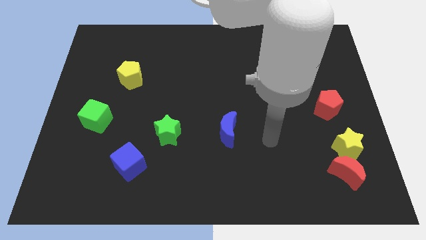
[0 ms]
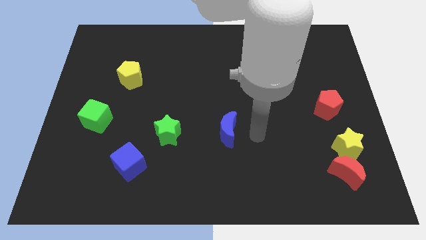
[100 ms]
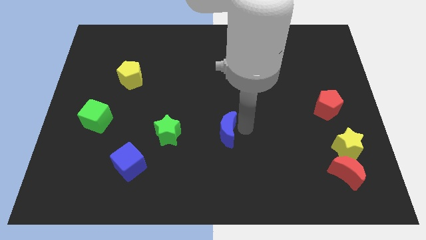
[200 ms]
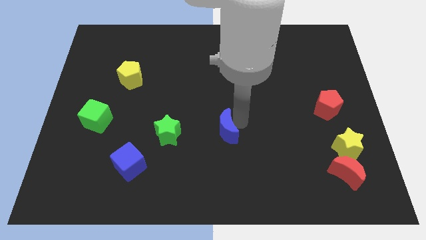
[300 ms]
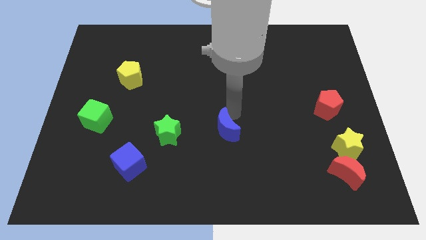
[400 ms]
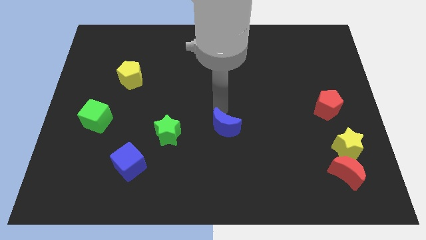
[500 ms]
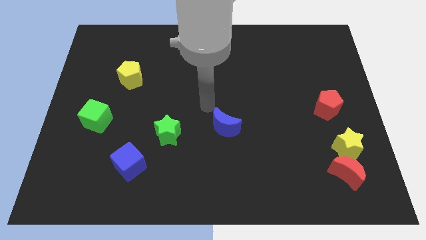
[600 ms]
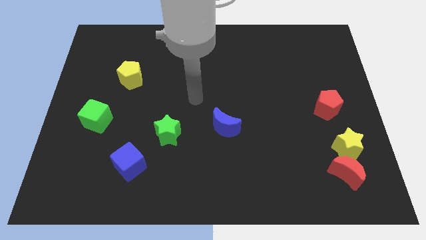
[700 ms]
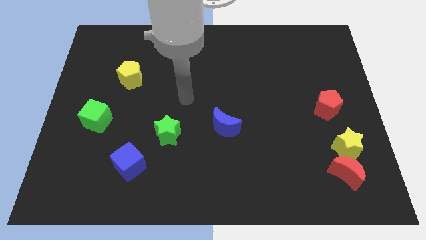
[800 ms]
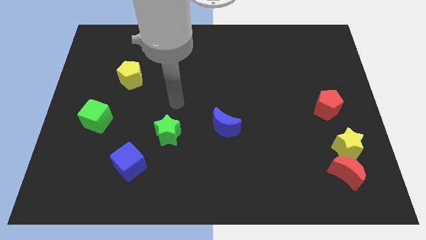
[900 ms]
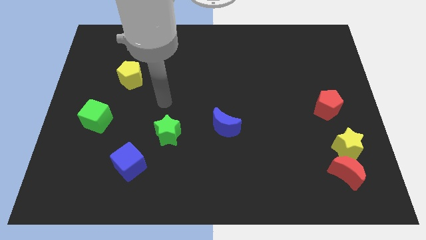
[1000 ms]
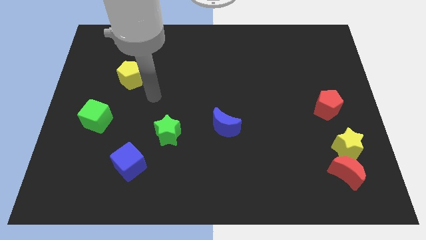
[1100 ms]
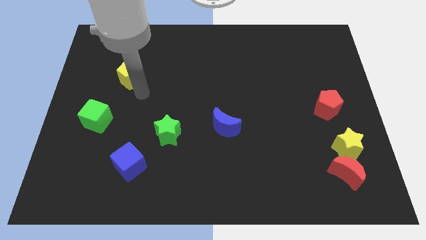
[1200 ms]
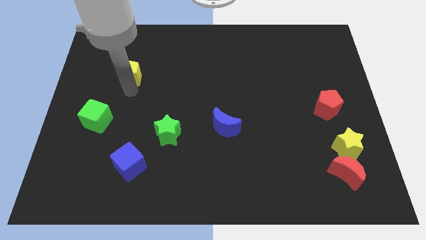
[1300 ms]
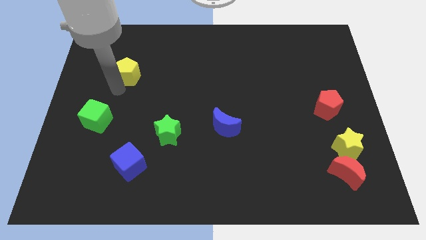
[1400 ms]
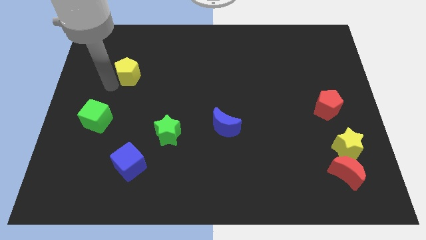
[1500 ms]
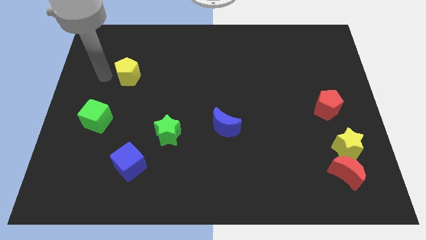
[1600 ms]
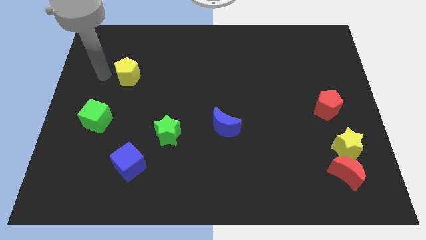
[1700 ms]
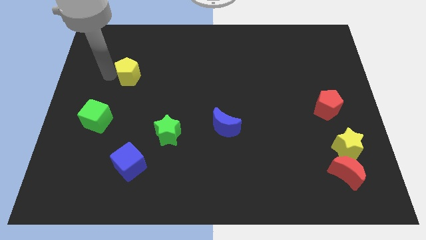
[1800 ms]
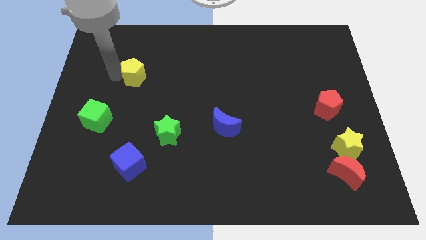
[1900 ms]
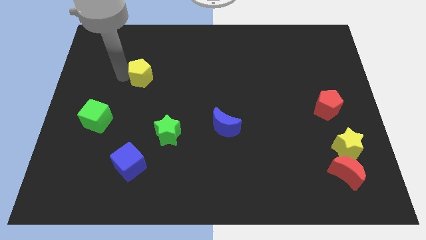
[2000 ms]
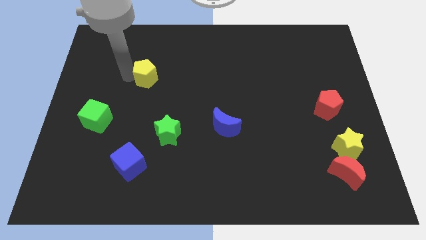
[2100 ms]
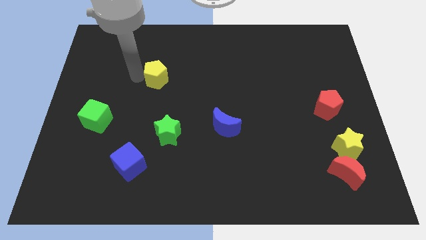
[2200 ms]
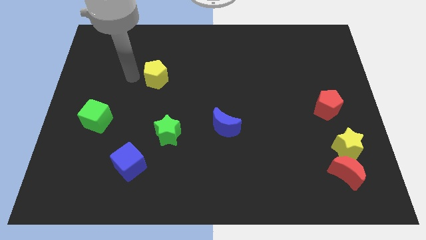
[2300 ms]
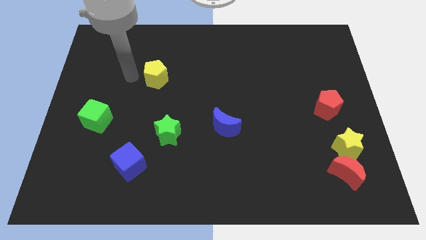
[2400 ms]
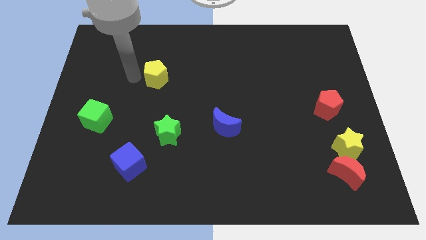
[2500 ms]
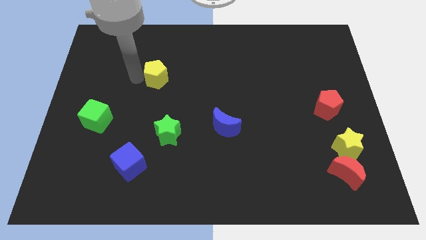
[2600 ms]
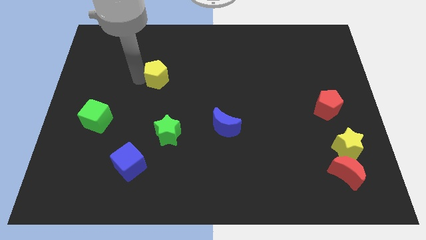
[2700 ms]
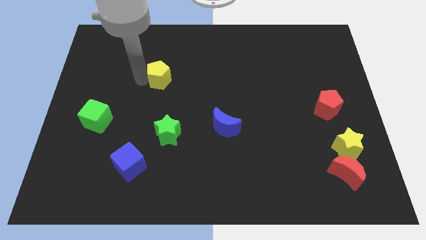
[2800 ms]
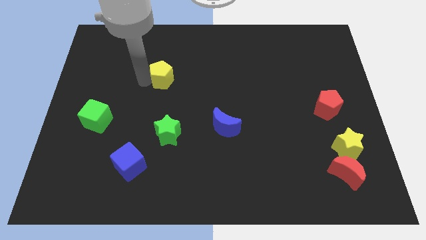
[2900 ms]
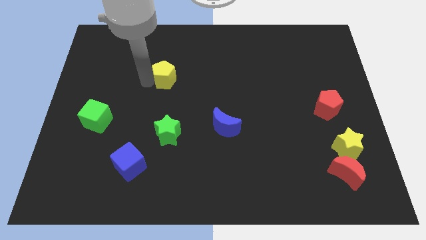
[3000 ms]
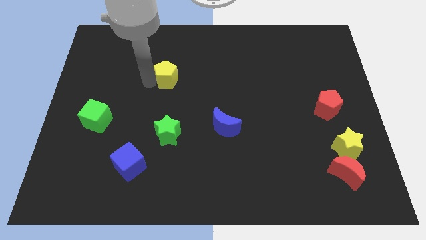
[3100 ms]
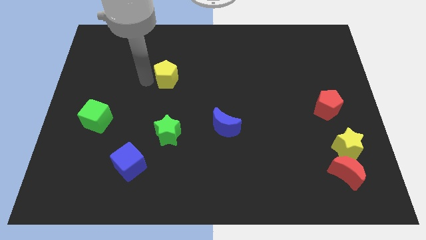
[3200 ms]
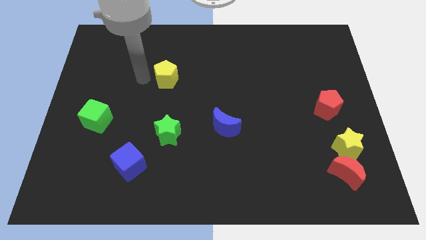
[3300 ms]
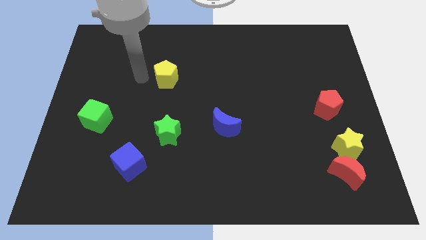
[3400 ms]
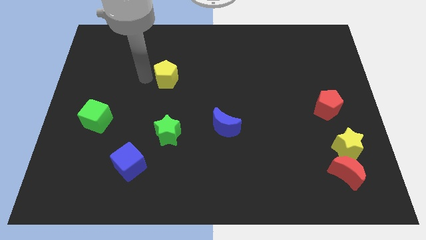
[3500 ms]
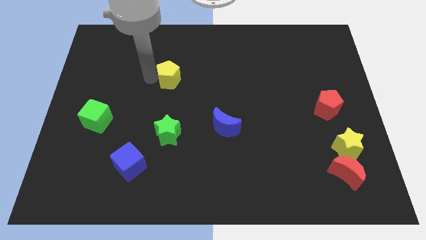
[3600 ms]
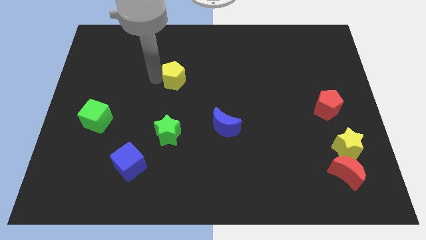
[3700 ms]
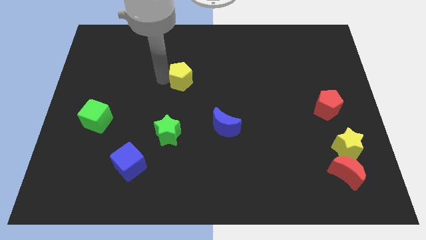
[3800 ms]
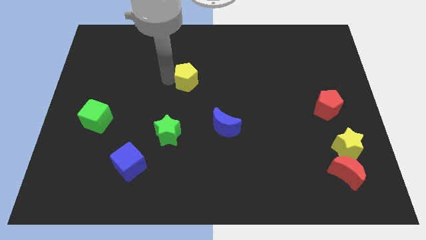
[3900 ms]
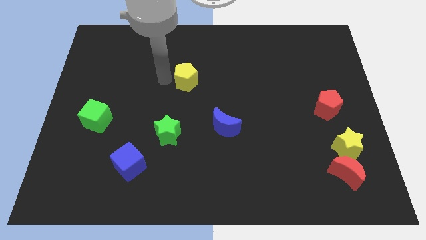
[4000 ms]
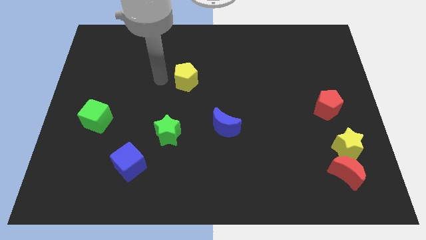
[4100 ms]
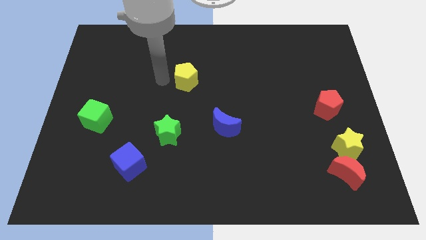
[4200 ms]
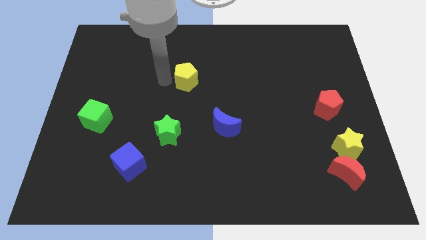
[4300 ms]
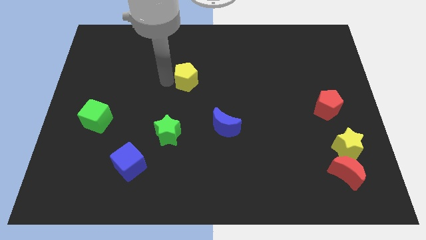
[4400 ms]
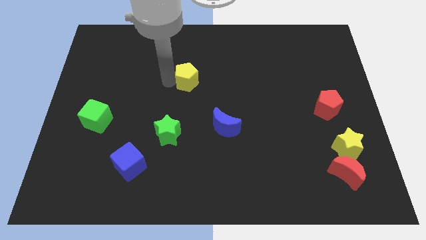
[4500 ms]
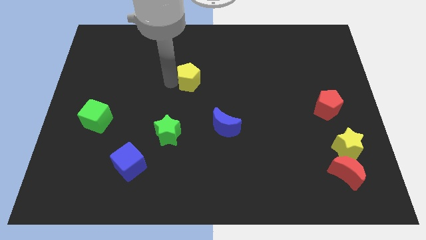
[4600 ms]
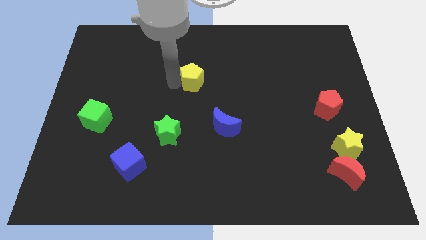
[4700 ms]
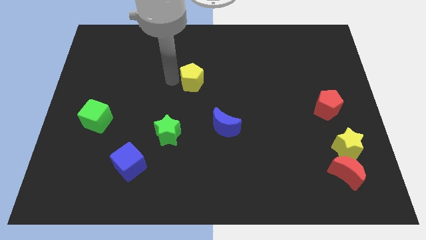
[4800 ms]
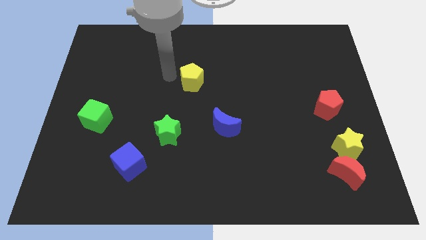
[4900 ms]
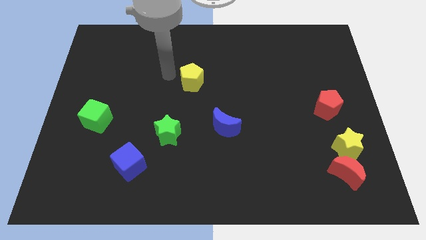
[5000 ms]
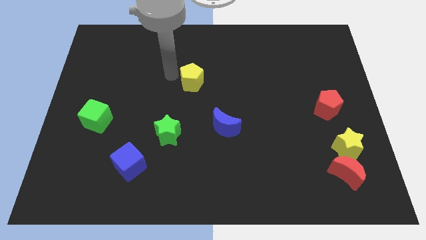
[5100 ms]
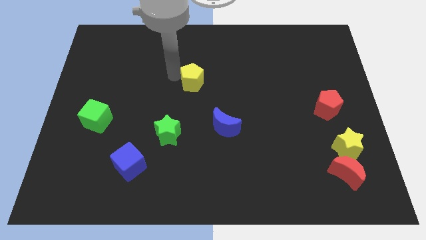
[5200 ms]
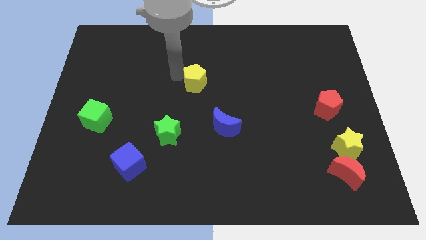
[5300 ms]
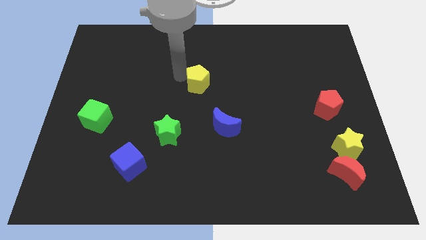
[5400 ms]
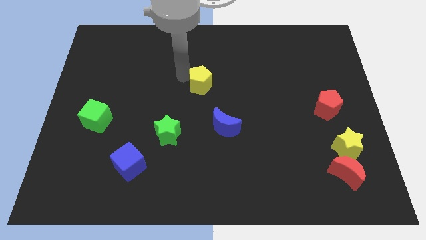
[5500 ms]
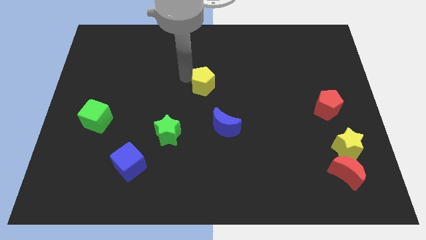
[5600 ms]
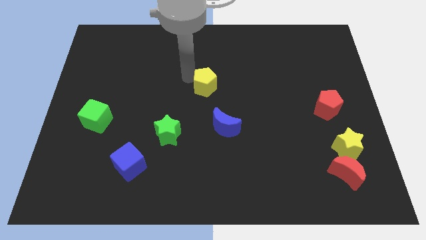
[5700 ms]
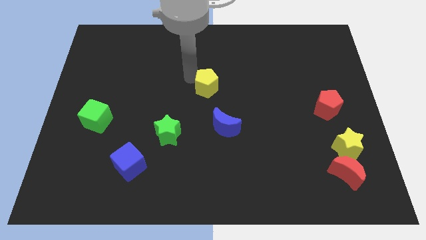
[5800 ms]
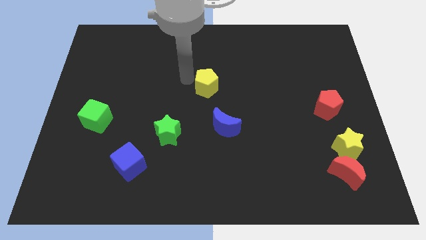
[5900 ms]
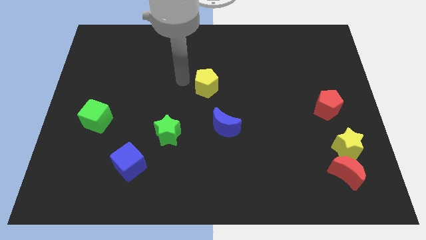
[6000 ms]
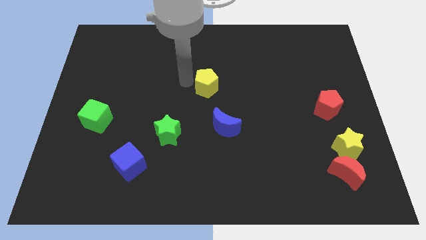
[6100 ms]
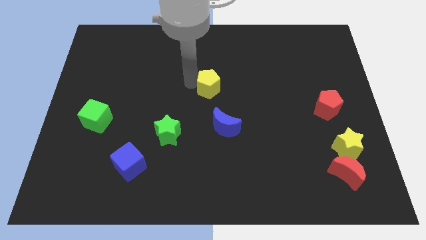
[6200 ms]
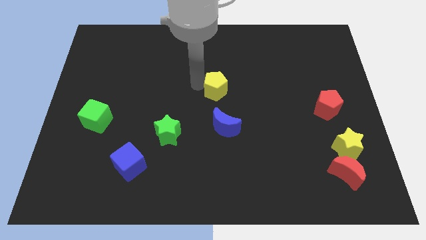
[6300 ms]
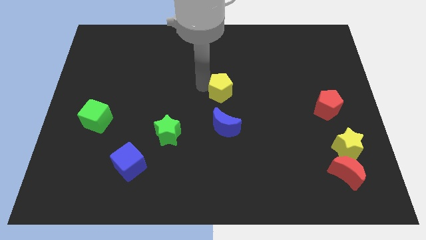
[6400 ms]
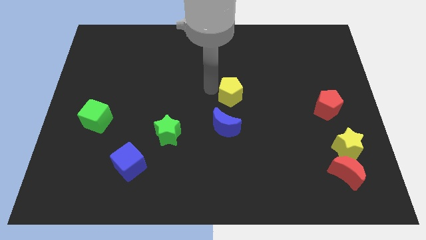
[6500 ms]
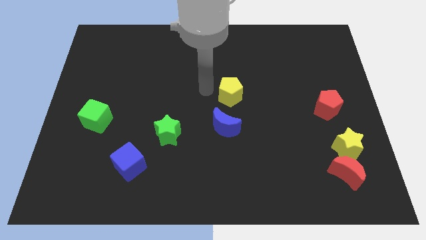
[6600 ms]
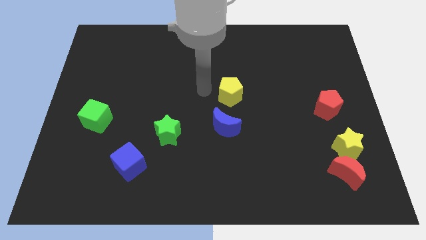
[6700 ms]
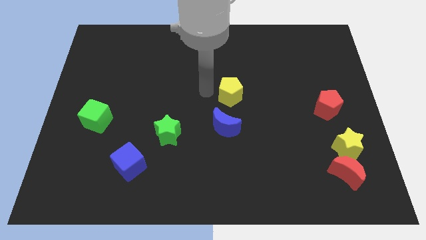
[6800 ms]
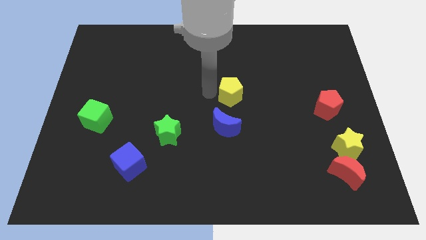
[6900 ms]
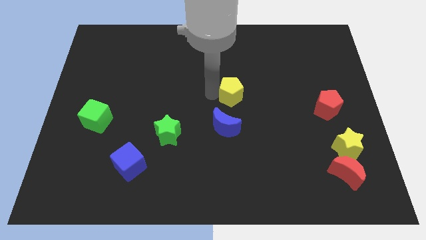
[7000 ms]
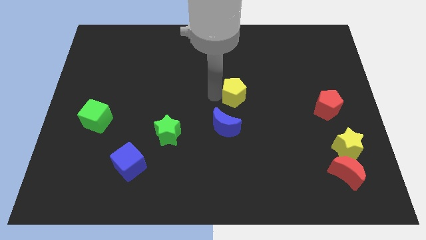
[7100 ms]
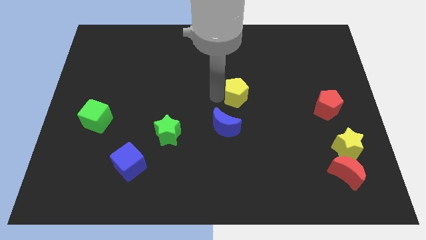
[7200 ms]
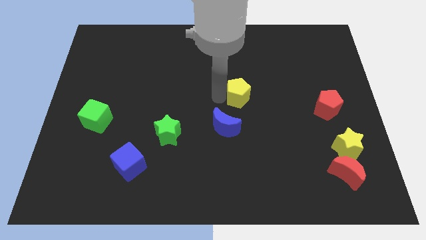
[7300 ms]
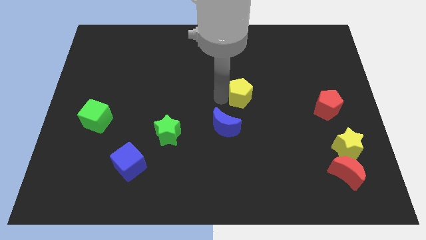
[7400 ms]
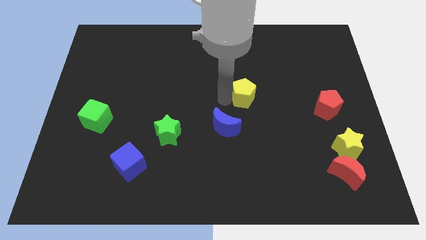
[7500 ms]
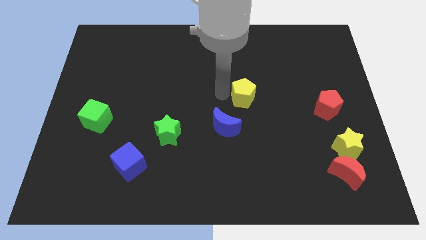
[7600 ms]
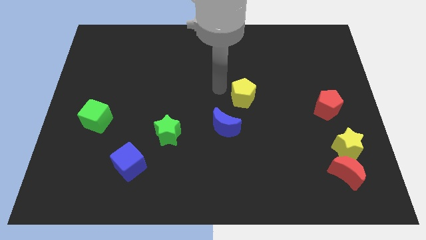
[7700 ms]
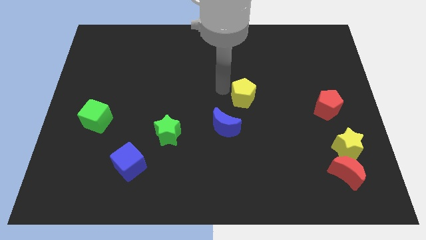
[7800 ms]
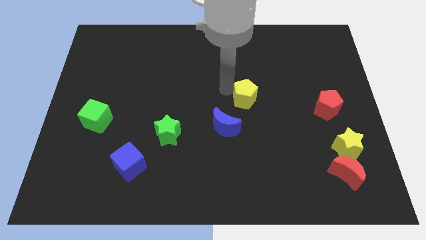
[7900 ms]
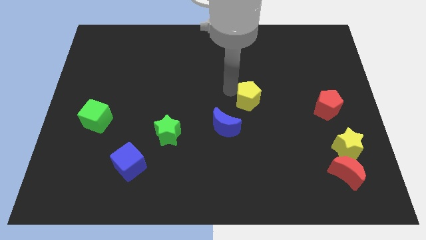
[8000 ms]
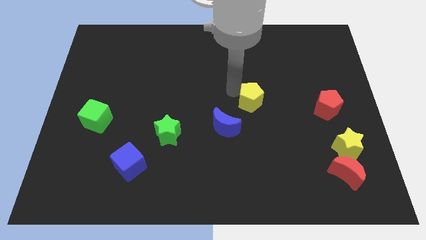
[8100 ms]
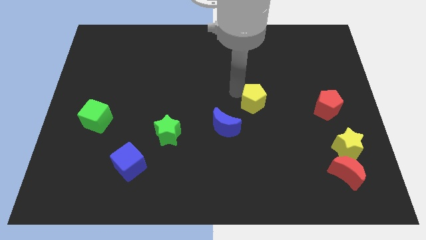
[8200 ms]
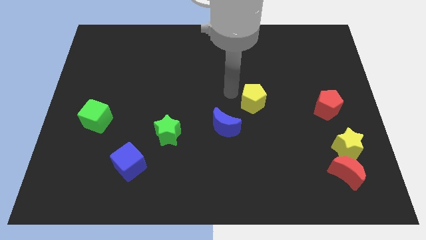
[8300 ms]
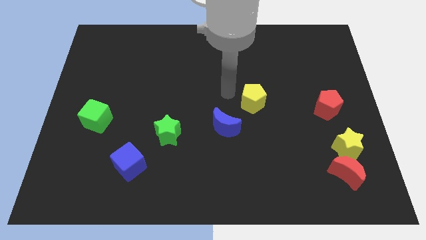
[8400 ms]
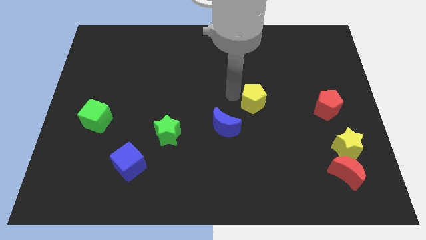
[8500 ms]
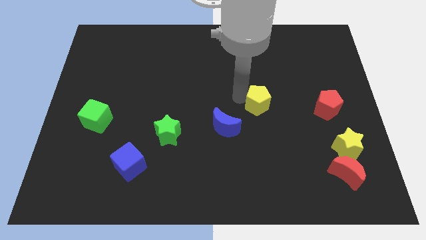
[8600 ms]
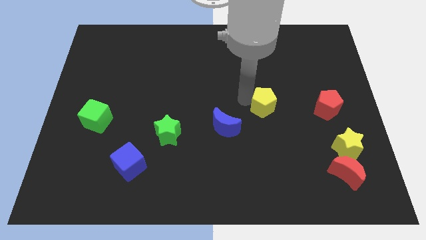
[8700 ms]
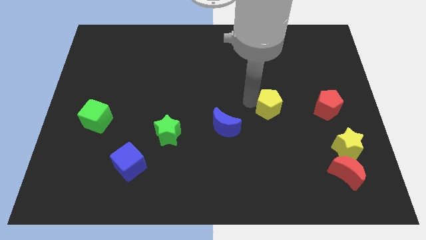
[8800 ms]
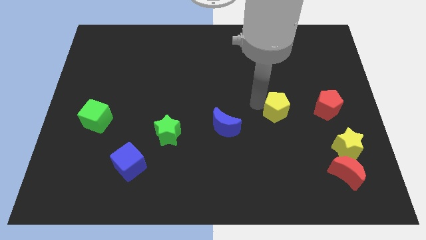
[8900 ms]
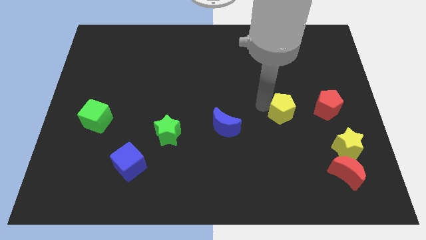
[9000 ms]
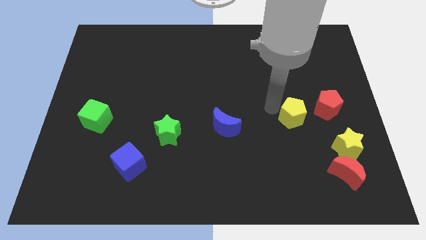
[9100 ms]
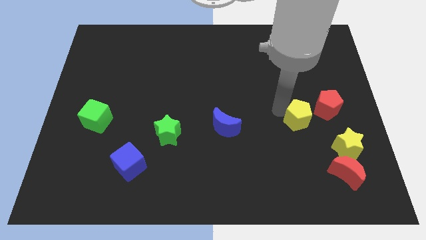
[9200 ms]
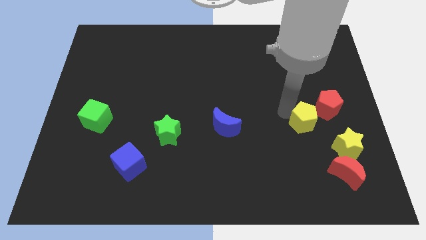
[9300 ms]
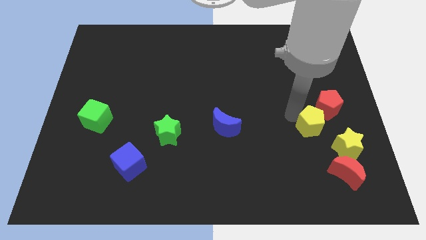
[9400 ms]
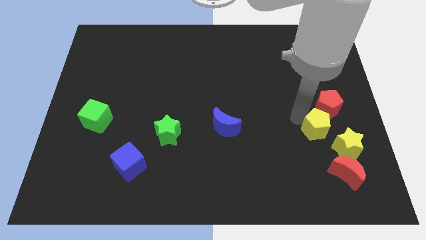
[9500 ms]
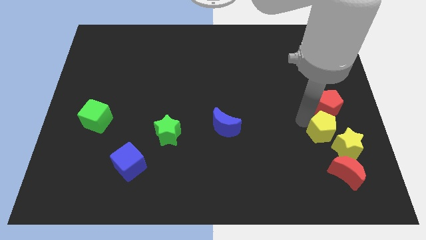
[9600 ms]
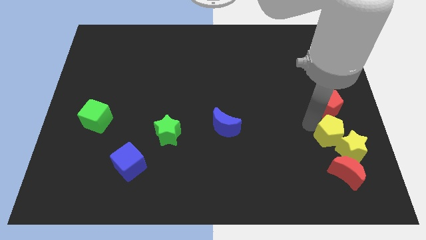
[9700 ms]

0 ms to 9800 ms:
put the yellow pentagon to the yellow star
